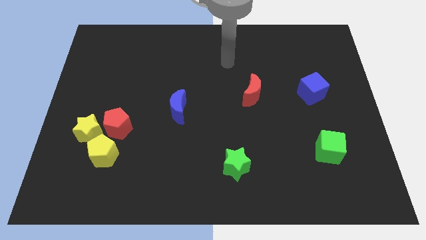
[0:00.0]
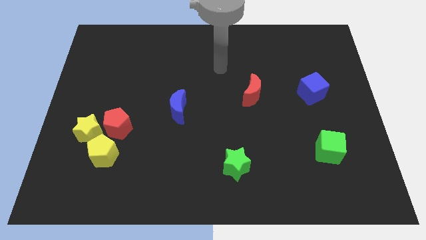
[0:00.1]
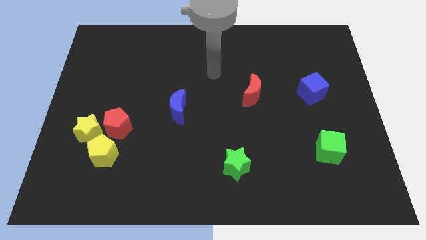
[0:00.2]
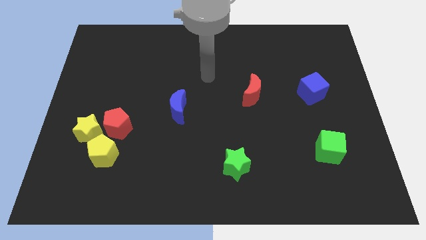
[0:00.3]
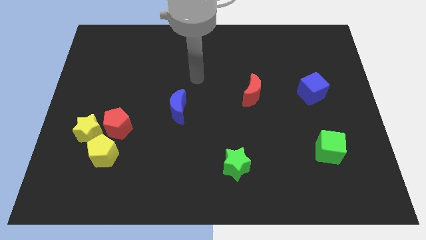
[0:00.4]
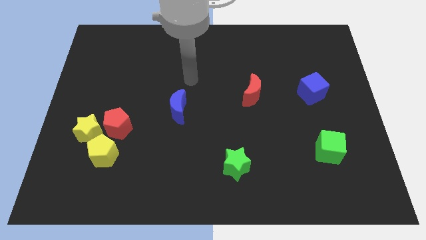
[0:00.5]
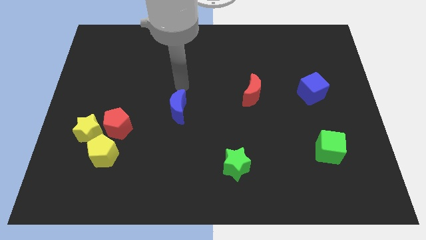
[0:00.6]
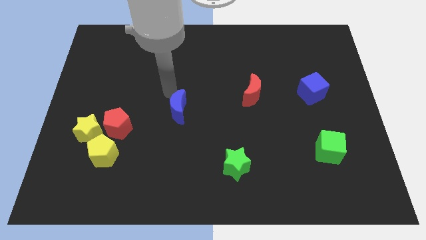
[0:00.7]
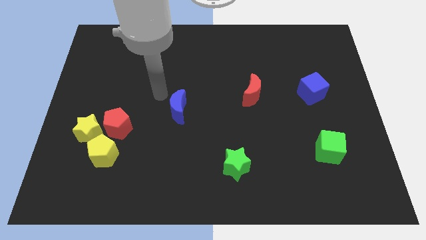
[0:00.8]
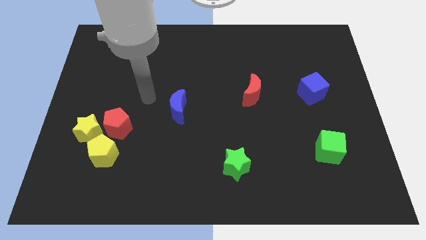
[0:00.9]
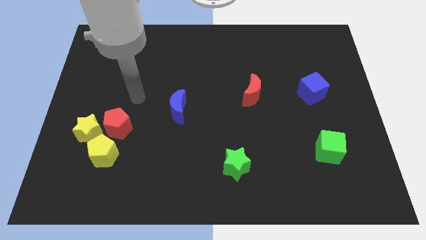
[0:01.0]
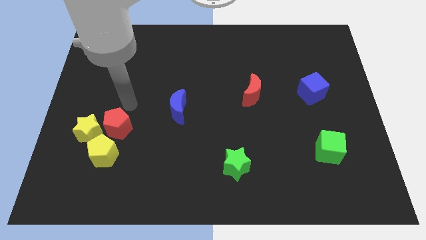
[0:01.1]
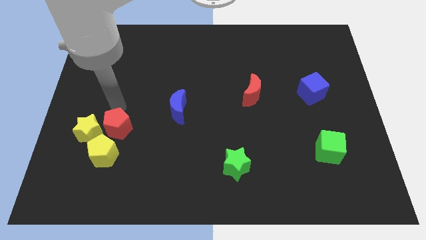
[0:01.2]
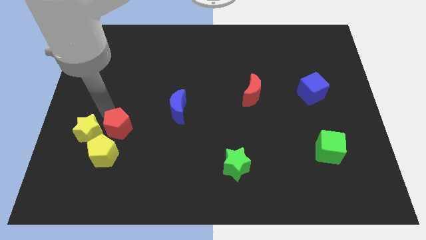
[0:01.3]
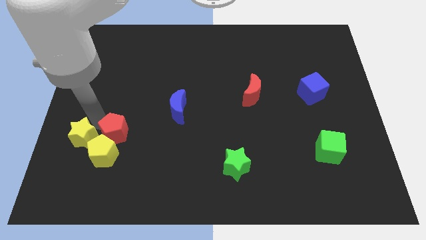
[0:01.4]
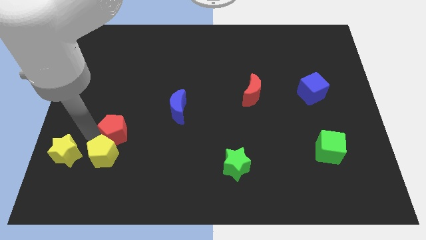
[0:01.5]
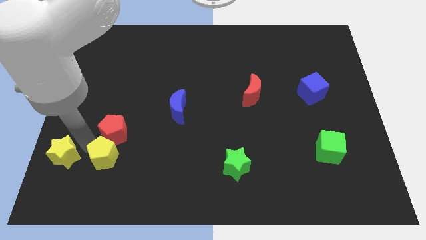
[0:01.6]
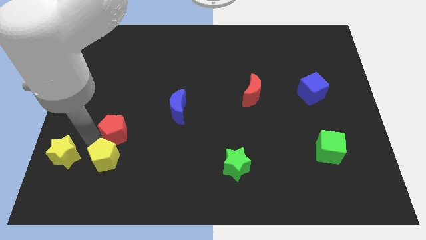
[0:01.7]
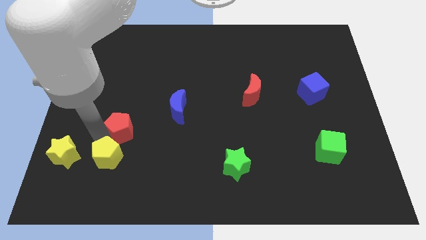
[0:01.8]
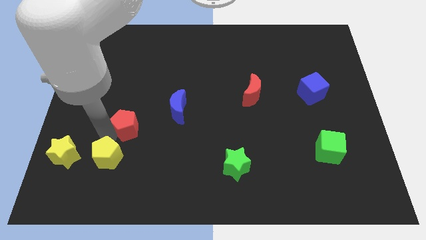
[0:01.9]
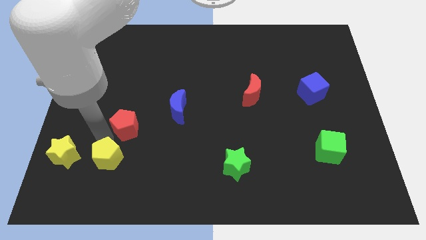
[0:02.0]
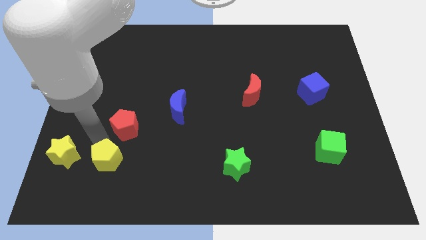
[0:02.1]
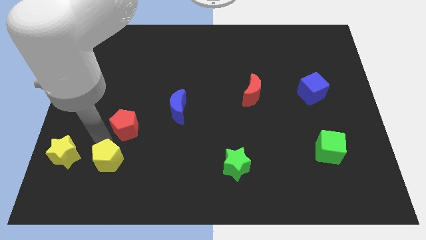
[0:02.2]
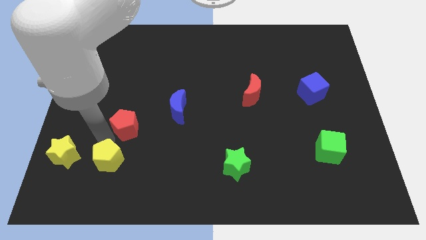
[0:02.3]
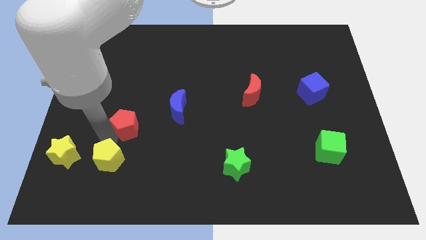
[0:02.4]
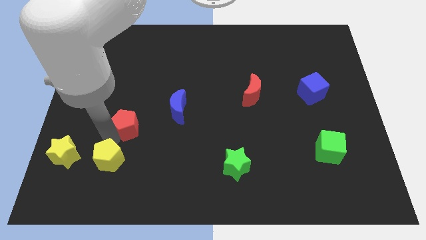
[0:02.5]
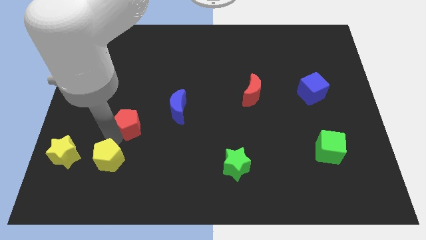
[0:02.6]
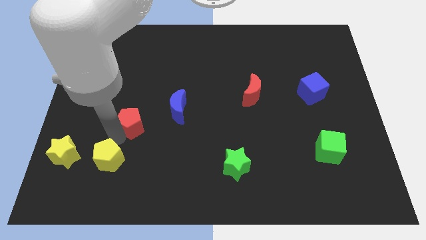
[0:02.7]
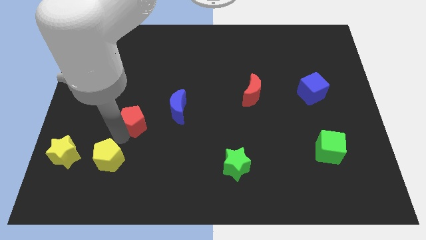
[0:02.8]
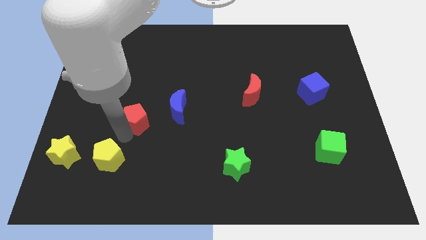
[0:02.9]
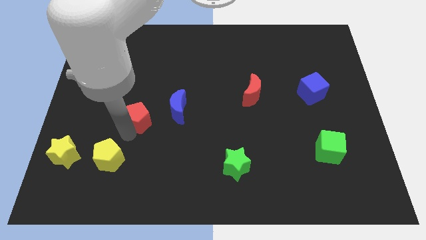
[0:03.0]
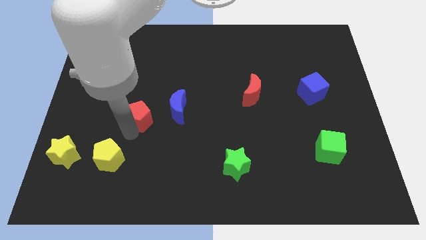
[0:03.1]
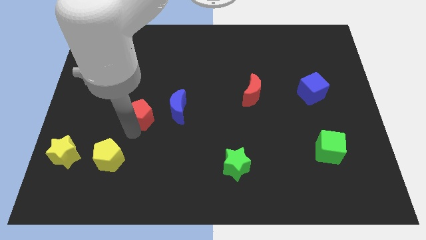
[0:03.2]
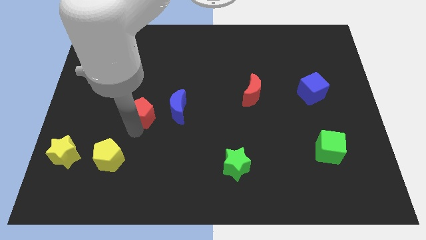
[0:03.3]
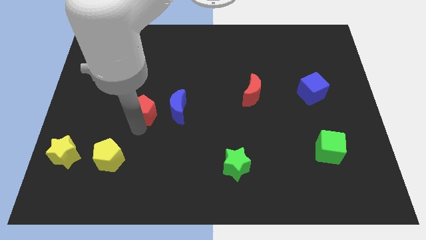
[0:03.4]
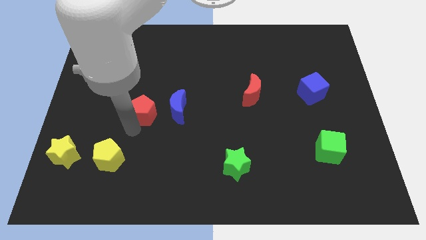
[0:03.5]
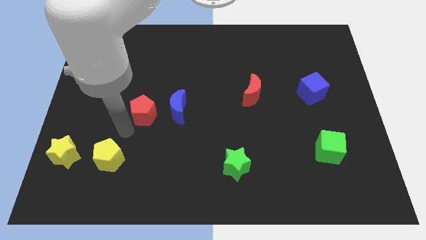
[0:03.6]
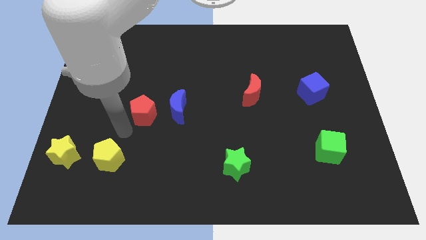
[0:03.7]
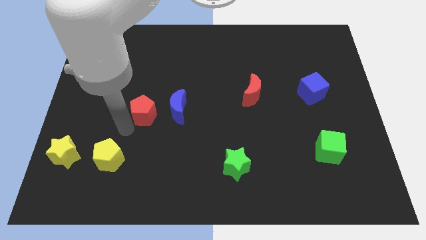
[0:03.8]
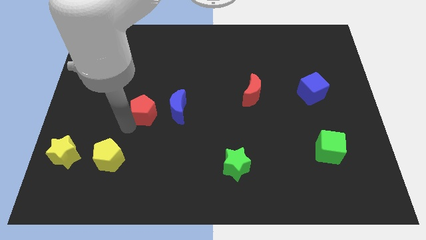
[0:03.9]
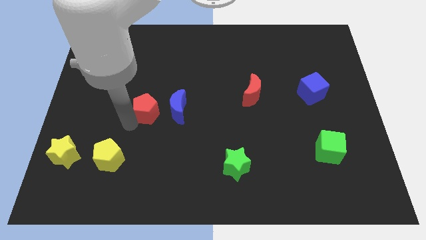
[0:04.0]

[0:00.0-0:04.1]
slightly push the red pentagon upwards and then right

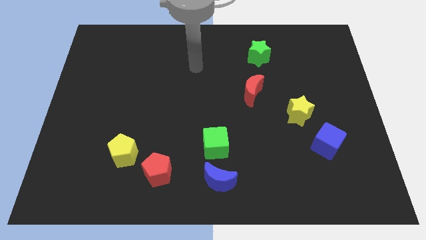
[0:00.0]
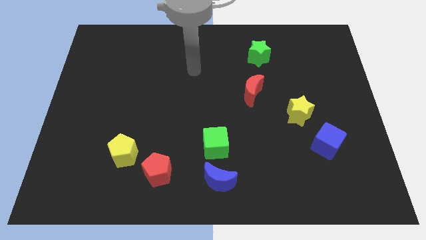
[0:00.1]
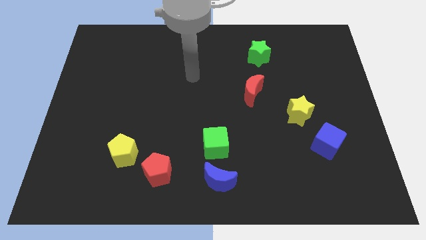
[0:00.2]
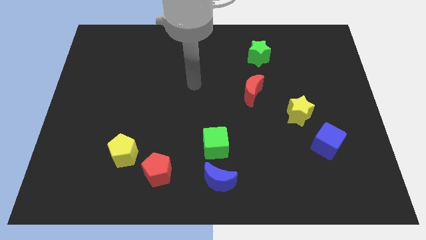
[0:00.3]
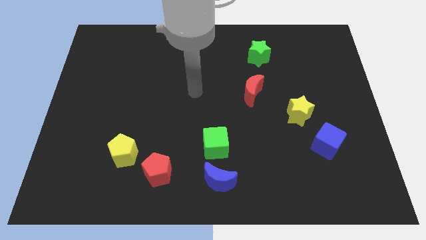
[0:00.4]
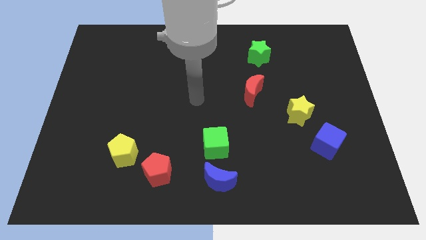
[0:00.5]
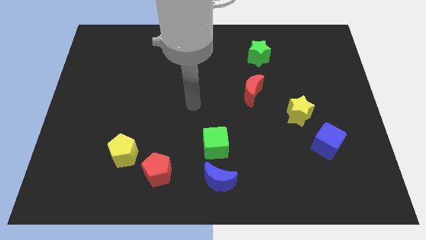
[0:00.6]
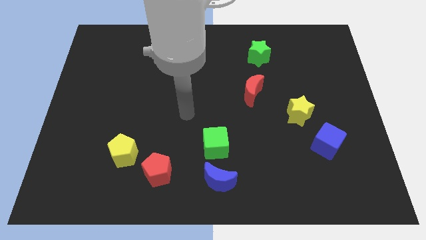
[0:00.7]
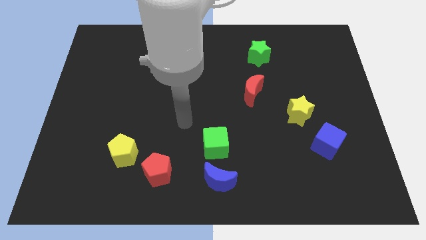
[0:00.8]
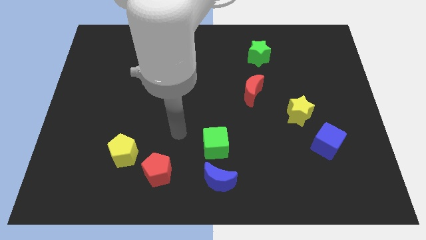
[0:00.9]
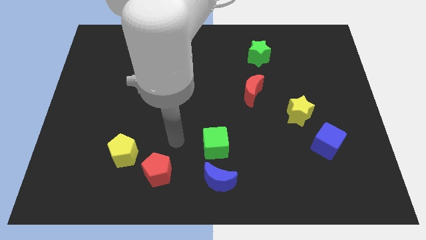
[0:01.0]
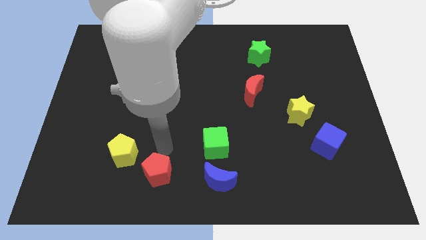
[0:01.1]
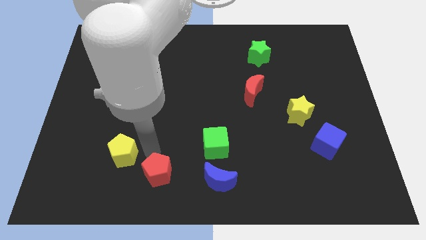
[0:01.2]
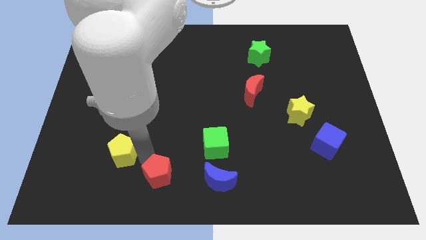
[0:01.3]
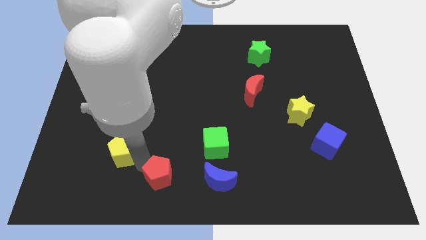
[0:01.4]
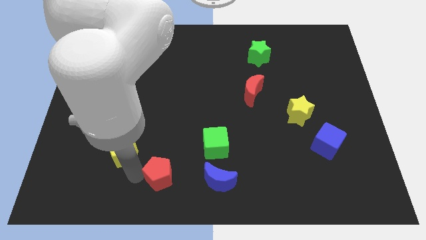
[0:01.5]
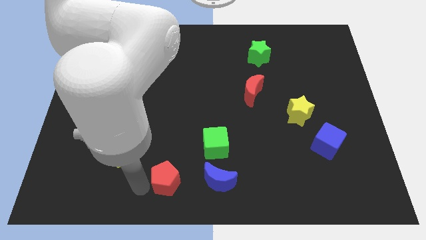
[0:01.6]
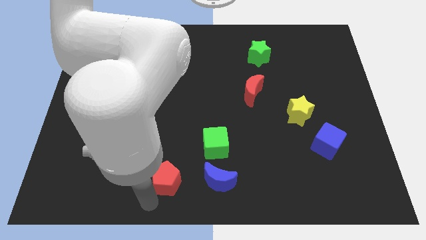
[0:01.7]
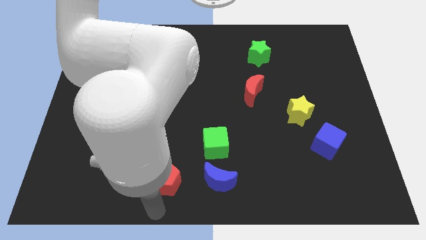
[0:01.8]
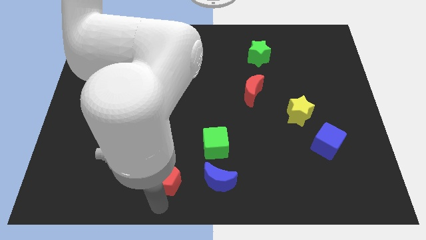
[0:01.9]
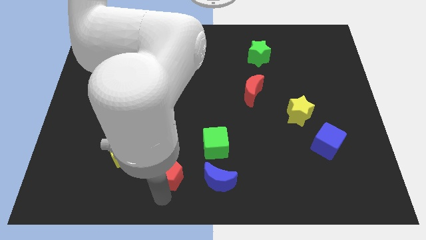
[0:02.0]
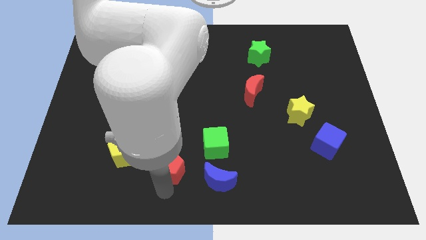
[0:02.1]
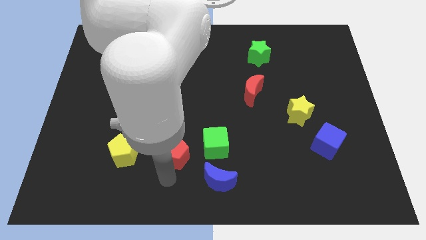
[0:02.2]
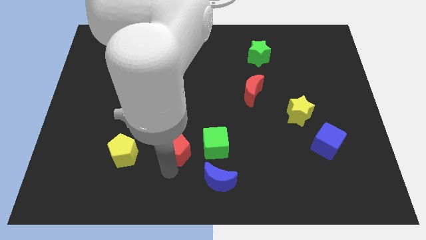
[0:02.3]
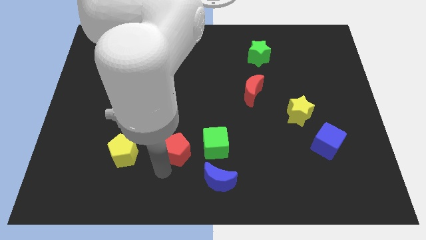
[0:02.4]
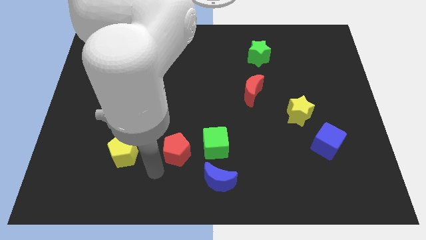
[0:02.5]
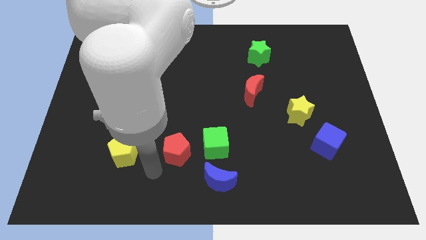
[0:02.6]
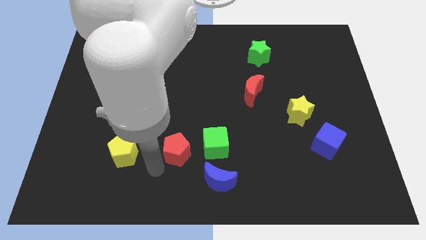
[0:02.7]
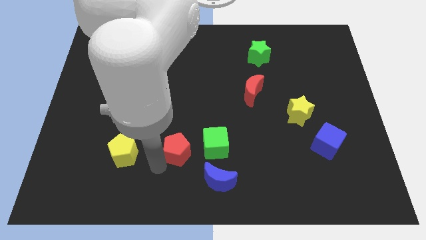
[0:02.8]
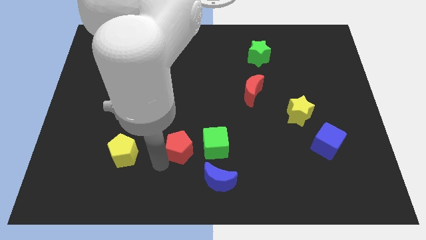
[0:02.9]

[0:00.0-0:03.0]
move the red pentagon up and right a bit

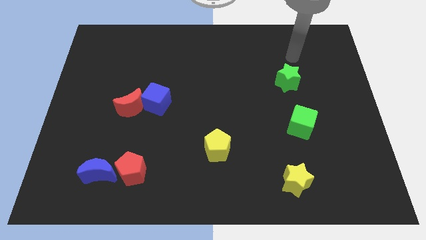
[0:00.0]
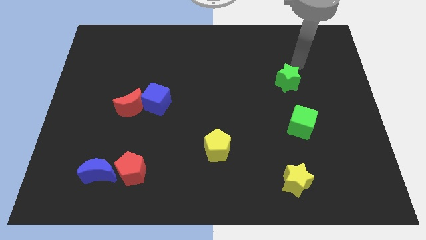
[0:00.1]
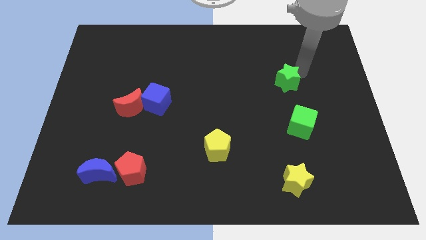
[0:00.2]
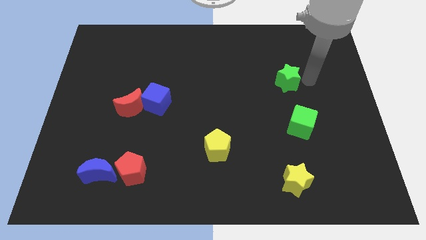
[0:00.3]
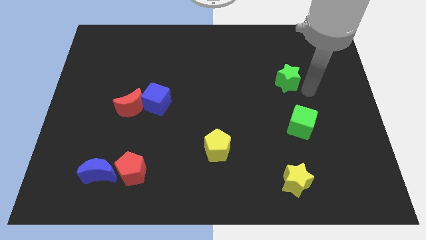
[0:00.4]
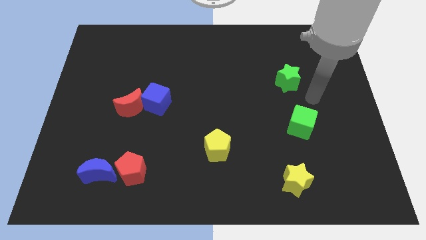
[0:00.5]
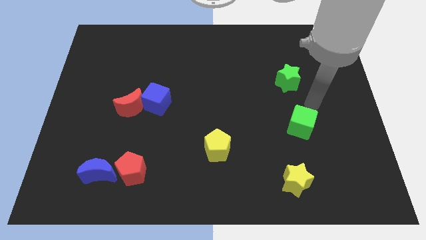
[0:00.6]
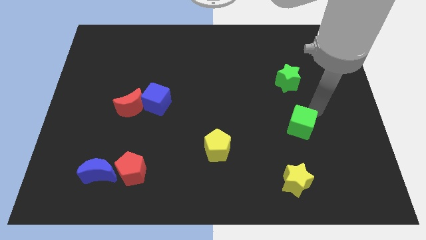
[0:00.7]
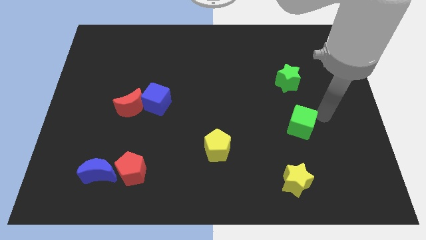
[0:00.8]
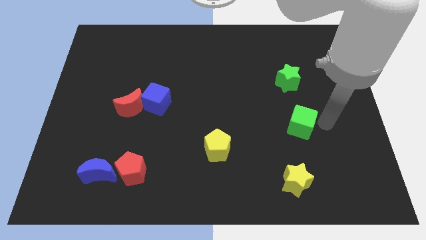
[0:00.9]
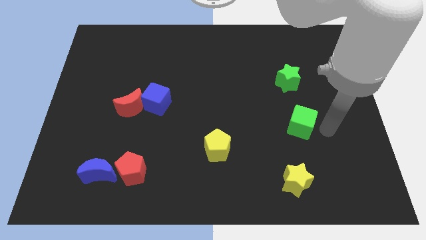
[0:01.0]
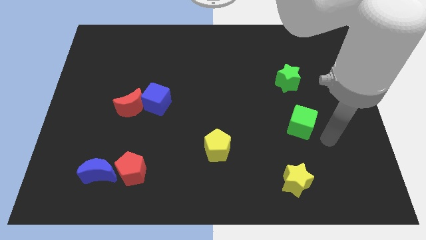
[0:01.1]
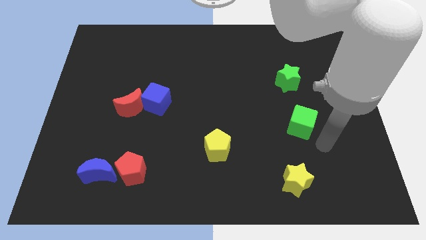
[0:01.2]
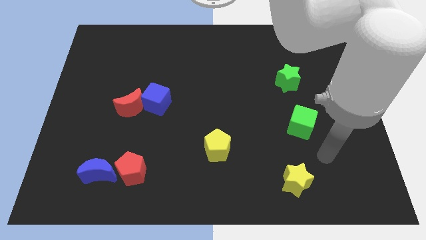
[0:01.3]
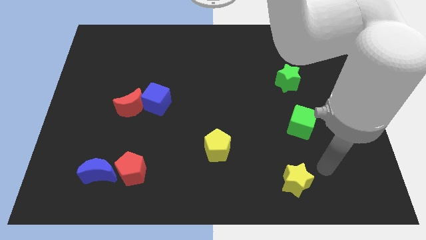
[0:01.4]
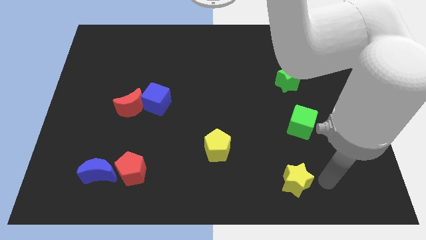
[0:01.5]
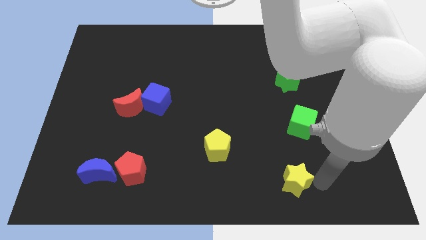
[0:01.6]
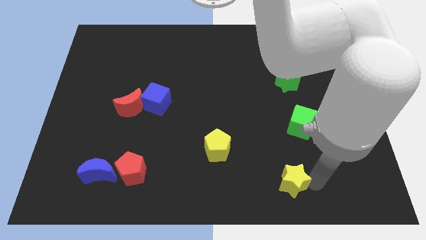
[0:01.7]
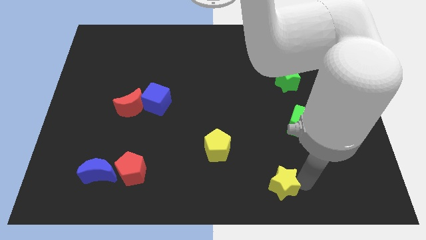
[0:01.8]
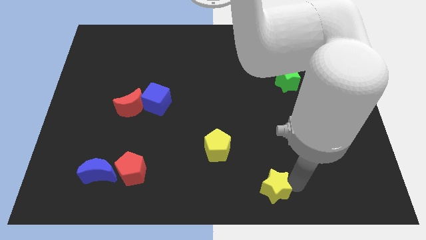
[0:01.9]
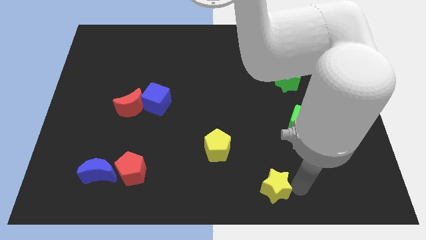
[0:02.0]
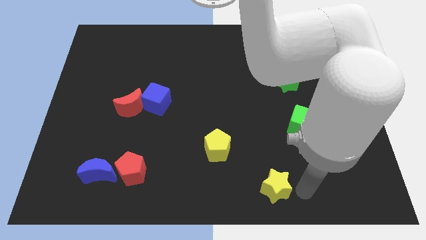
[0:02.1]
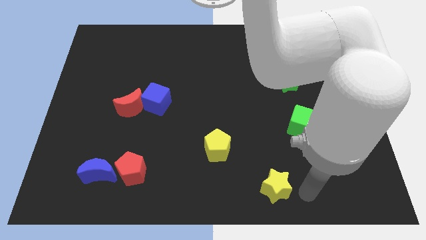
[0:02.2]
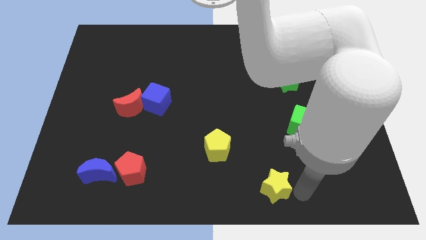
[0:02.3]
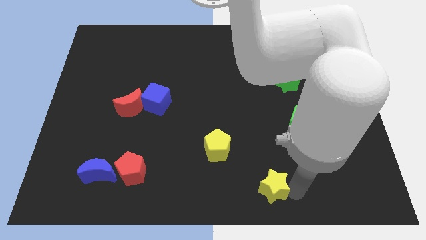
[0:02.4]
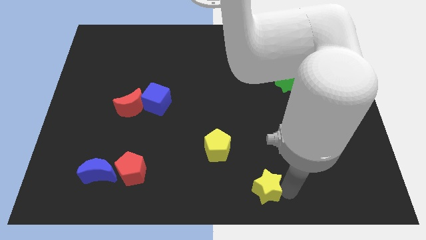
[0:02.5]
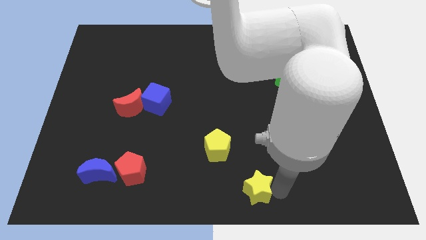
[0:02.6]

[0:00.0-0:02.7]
slide the yellow star left slightly
